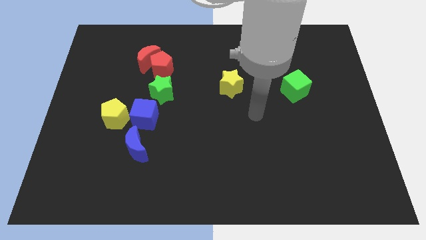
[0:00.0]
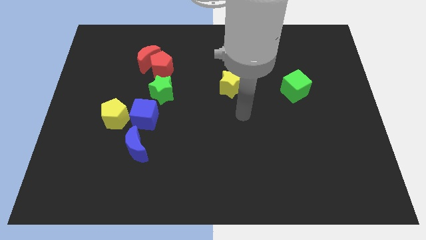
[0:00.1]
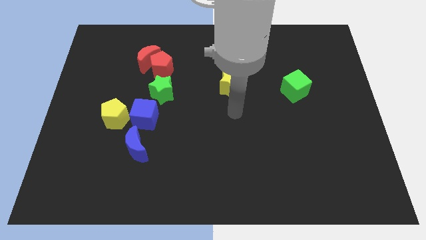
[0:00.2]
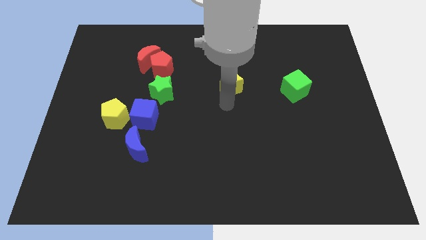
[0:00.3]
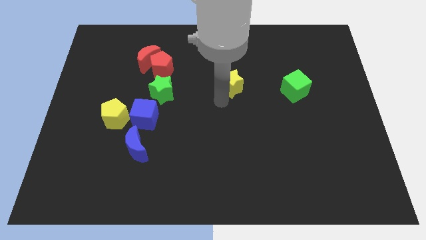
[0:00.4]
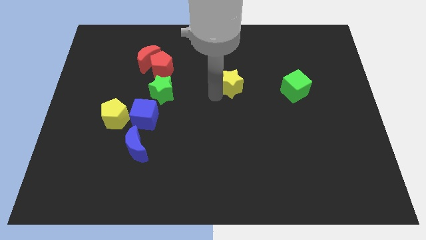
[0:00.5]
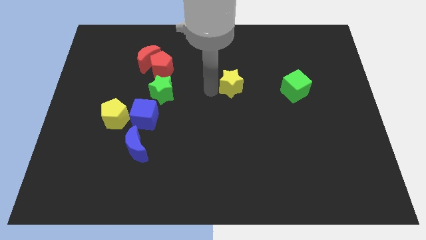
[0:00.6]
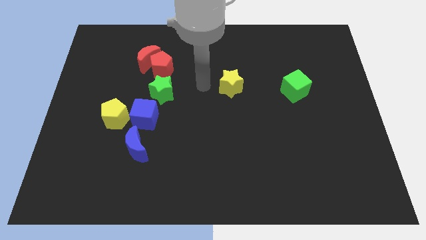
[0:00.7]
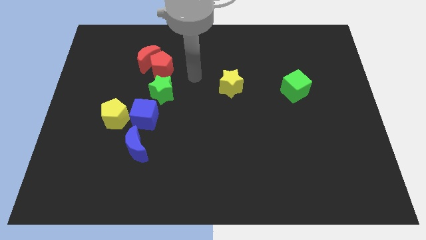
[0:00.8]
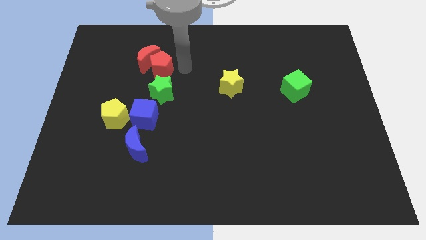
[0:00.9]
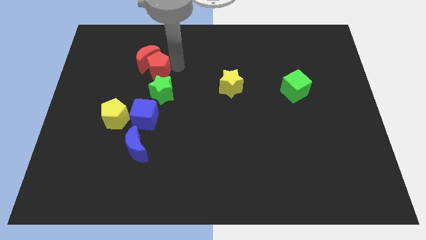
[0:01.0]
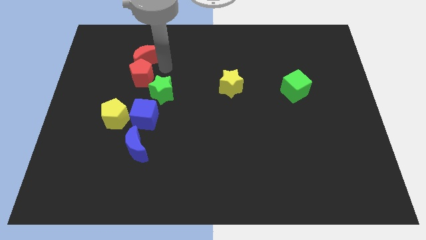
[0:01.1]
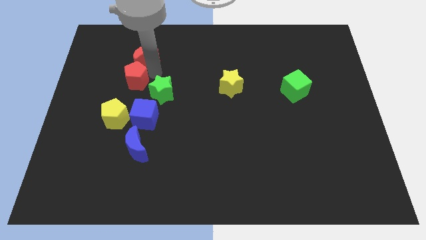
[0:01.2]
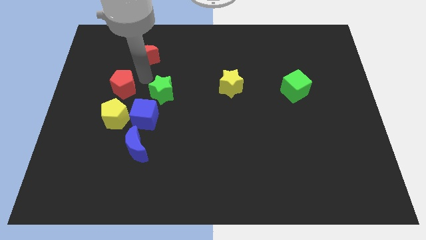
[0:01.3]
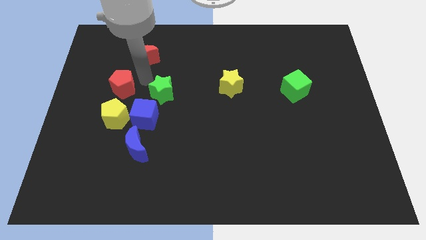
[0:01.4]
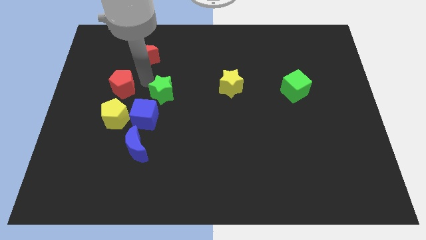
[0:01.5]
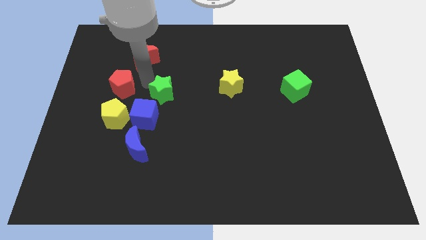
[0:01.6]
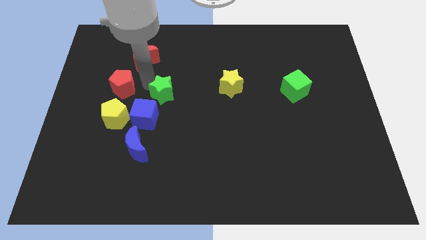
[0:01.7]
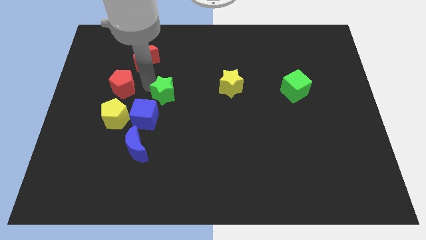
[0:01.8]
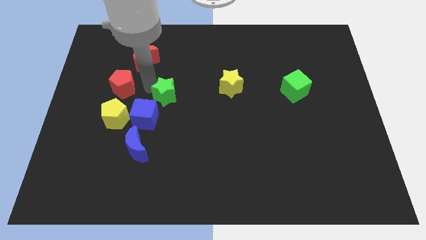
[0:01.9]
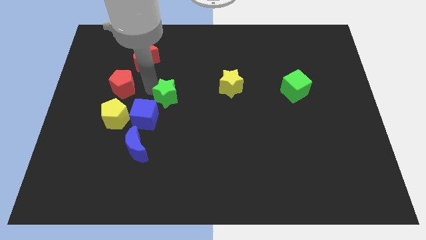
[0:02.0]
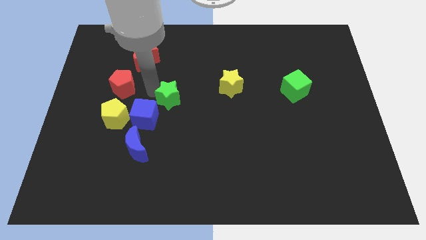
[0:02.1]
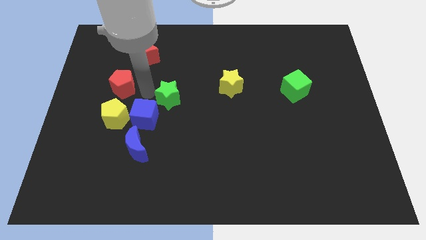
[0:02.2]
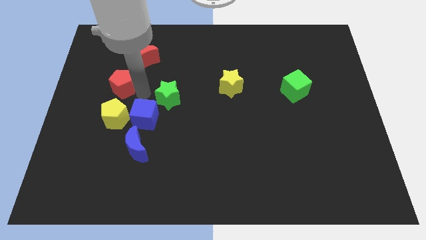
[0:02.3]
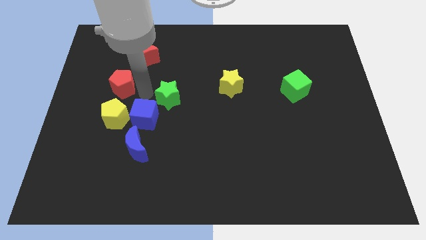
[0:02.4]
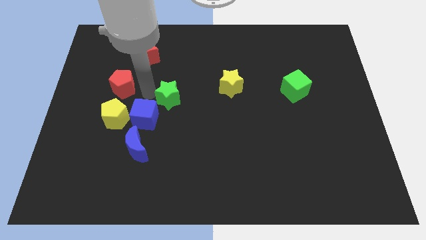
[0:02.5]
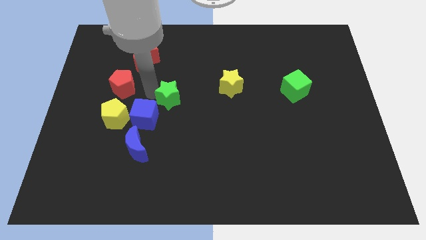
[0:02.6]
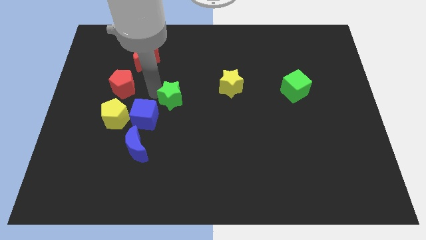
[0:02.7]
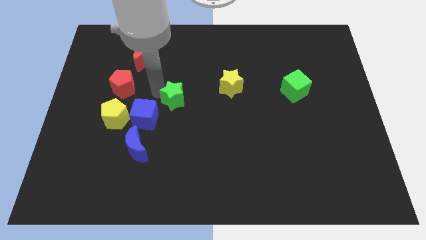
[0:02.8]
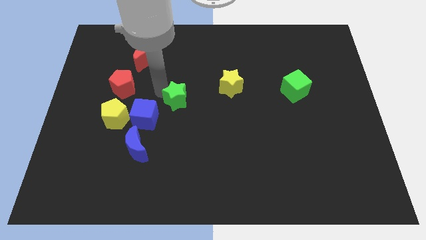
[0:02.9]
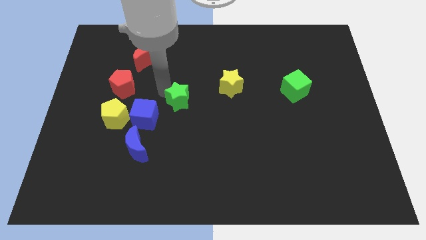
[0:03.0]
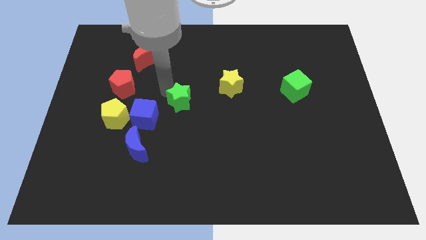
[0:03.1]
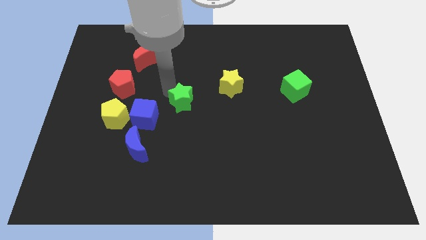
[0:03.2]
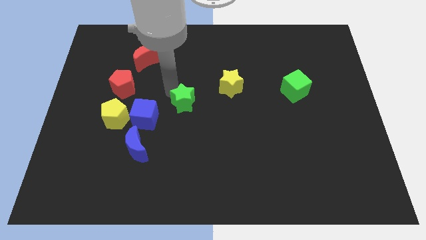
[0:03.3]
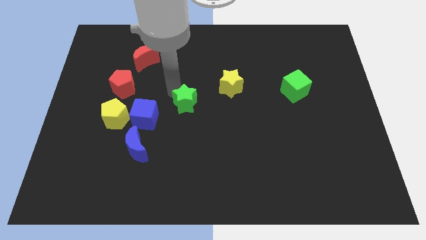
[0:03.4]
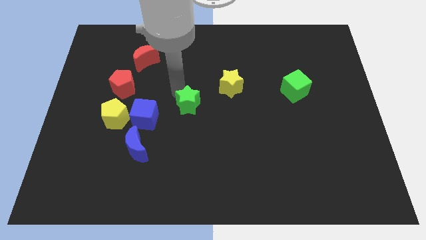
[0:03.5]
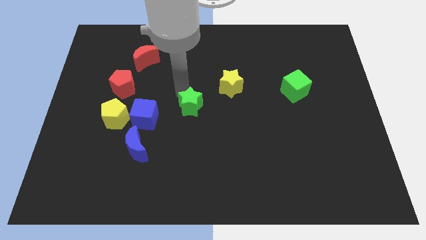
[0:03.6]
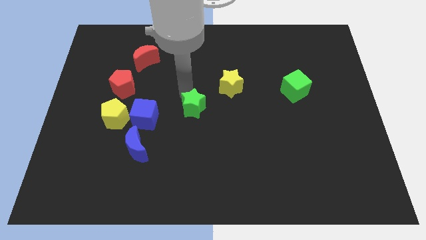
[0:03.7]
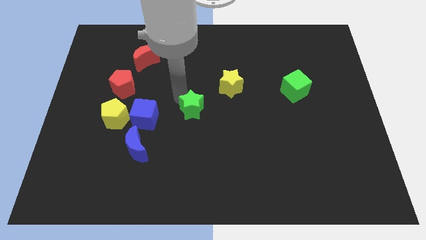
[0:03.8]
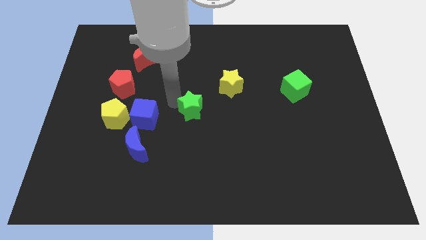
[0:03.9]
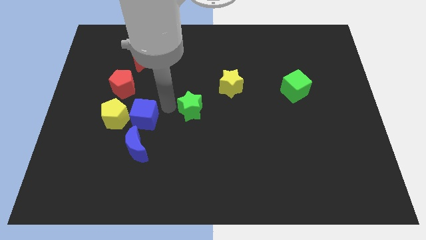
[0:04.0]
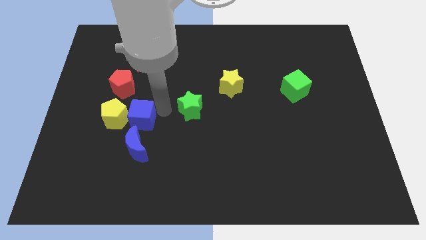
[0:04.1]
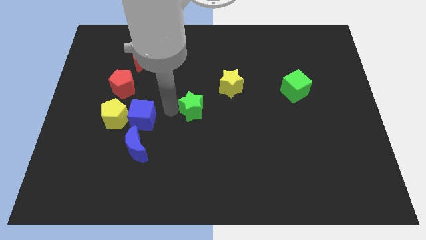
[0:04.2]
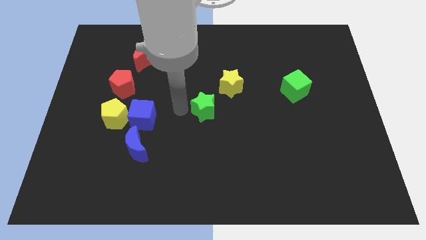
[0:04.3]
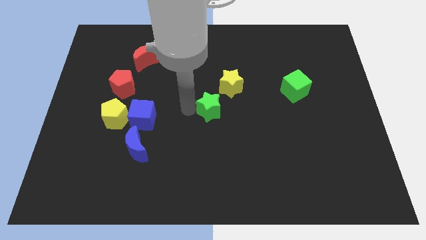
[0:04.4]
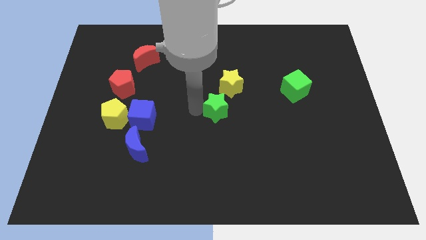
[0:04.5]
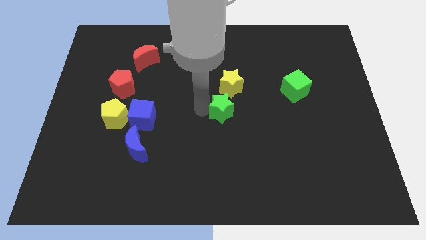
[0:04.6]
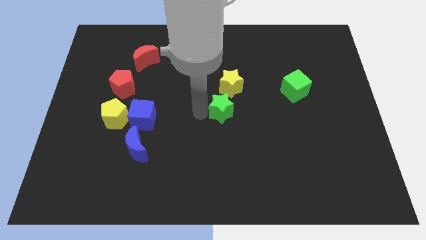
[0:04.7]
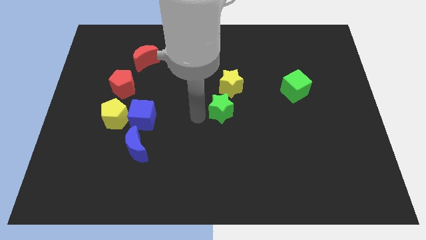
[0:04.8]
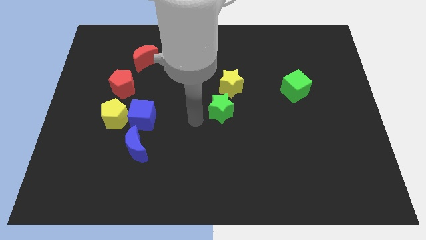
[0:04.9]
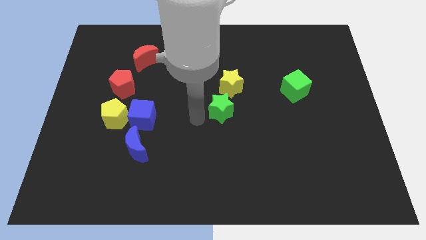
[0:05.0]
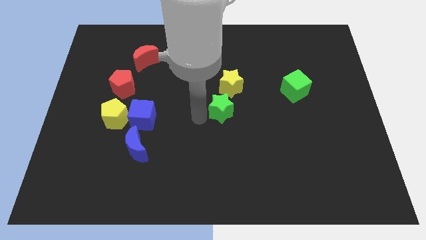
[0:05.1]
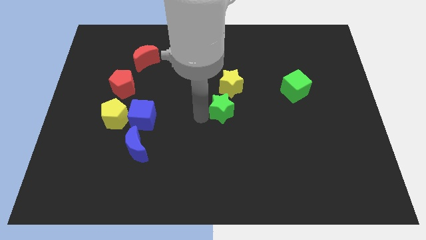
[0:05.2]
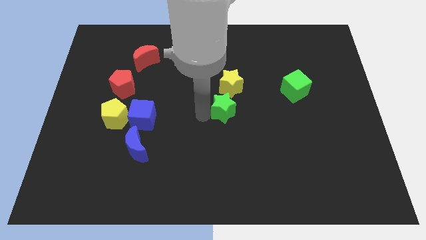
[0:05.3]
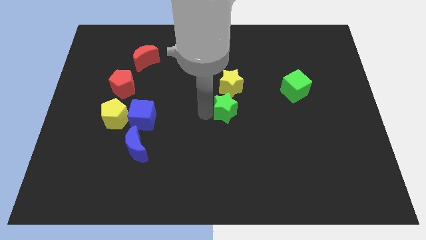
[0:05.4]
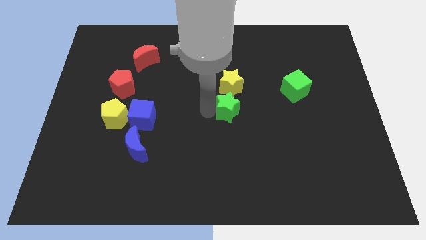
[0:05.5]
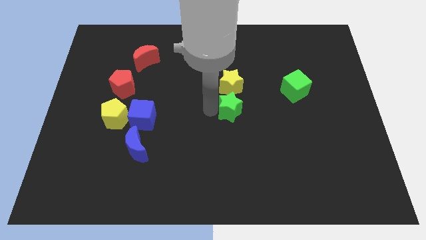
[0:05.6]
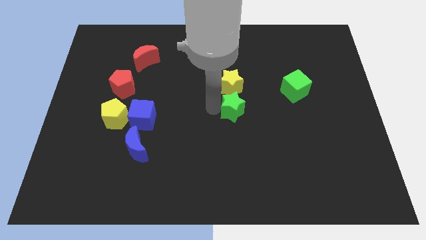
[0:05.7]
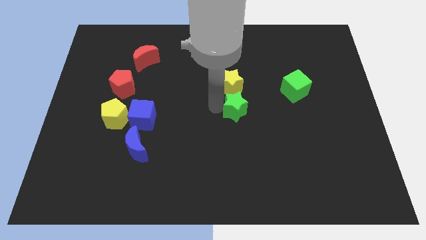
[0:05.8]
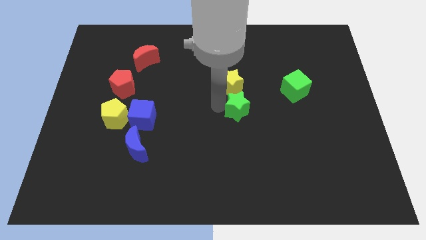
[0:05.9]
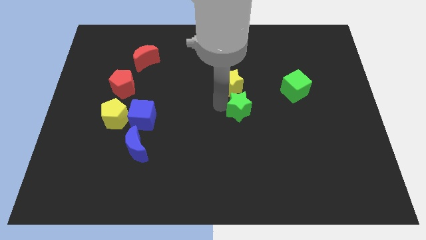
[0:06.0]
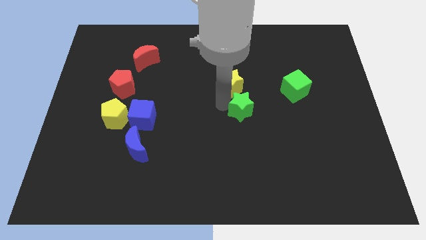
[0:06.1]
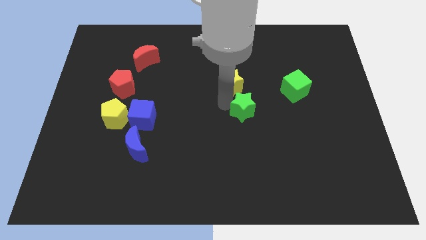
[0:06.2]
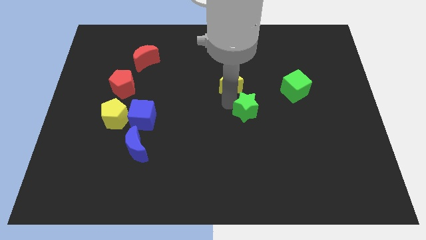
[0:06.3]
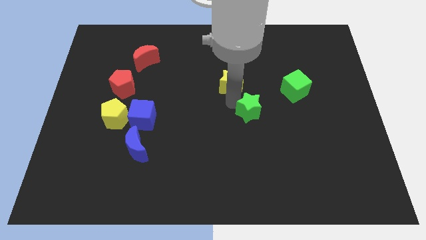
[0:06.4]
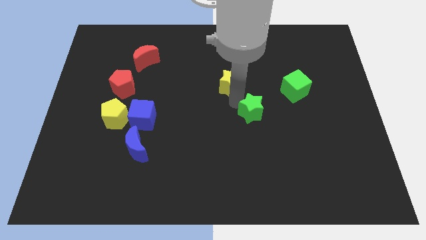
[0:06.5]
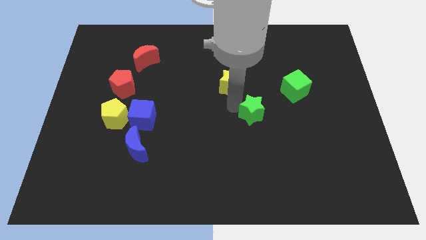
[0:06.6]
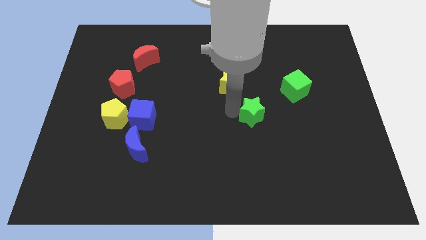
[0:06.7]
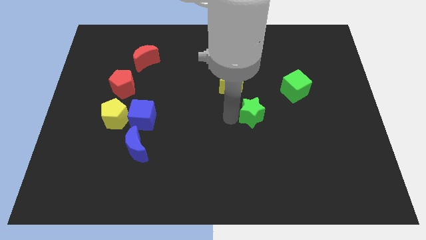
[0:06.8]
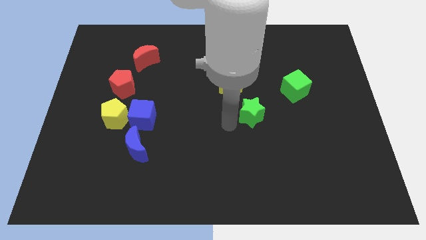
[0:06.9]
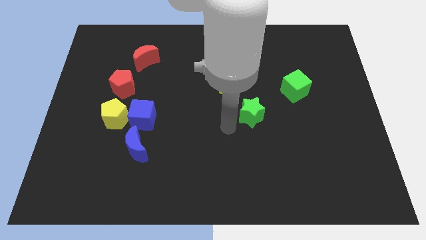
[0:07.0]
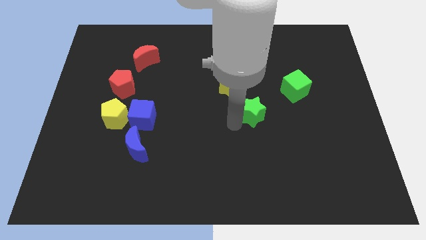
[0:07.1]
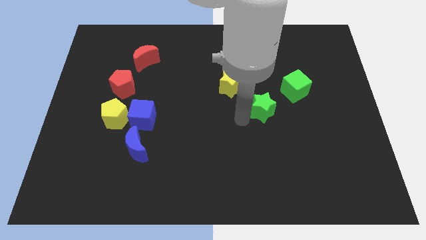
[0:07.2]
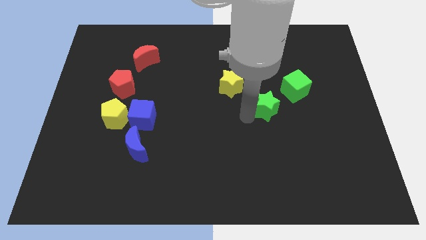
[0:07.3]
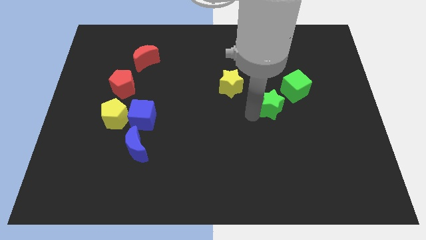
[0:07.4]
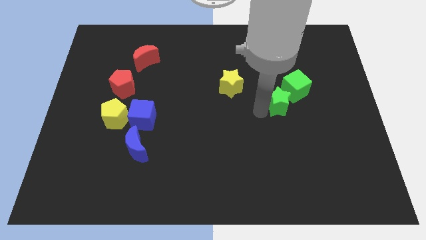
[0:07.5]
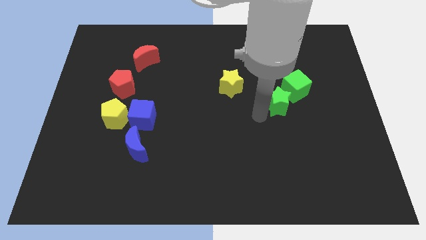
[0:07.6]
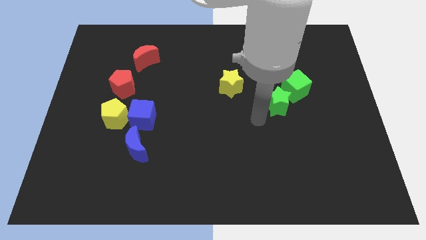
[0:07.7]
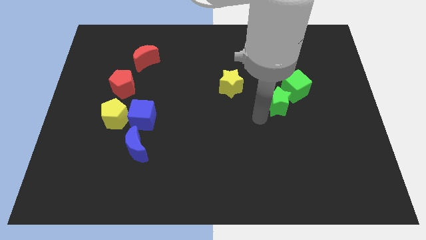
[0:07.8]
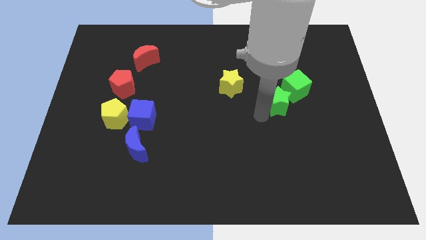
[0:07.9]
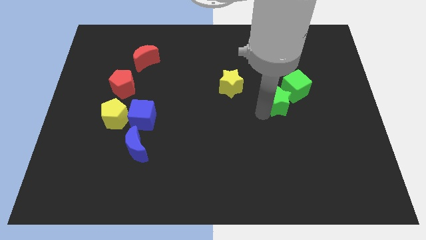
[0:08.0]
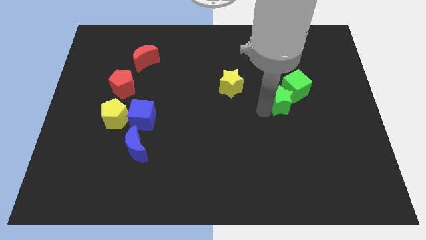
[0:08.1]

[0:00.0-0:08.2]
put the green star next to the green cube
